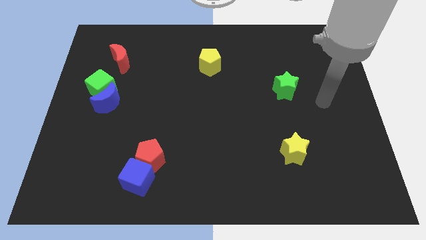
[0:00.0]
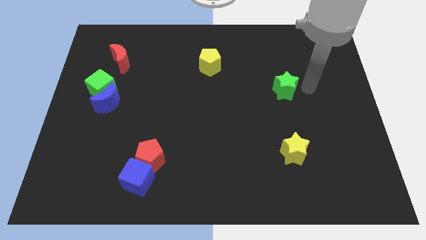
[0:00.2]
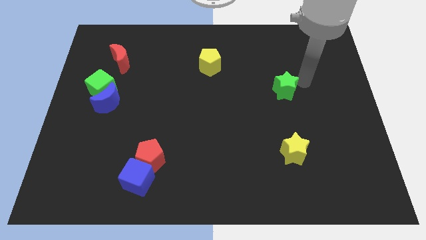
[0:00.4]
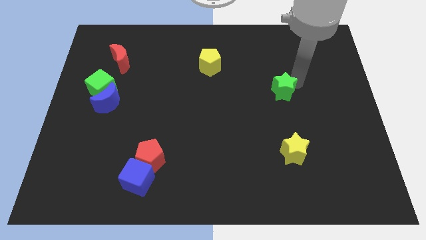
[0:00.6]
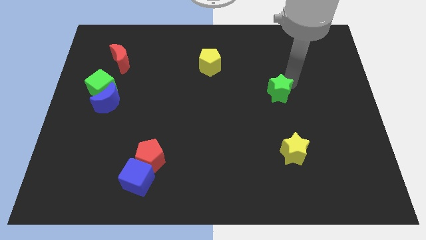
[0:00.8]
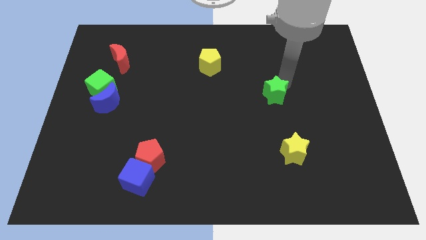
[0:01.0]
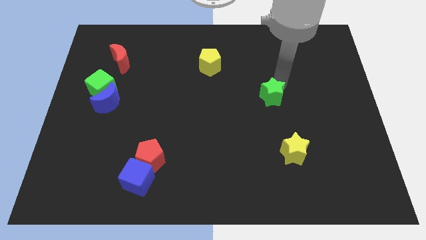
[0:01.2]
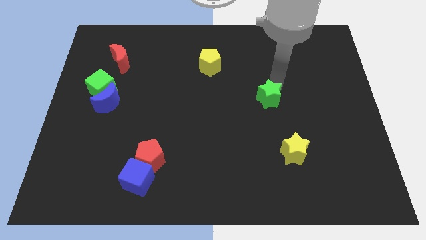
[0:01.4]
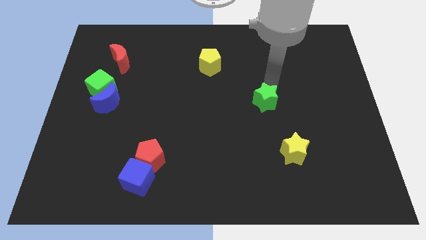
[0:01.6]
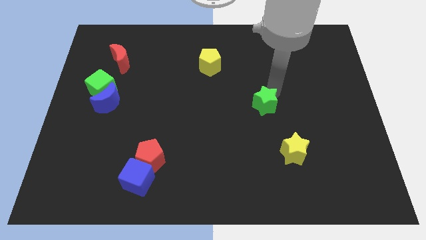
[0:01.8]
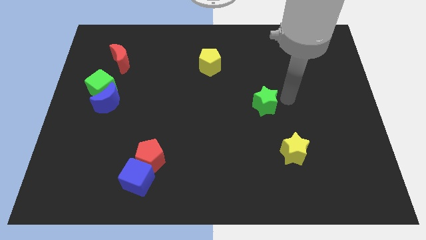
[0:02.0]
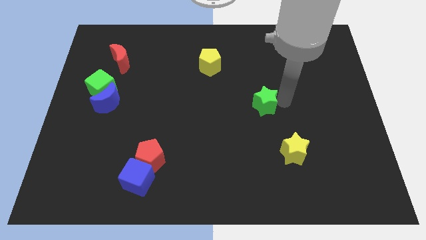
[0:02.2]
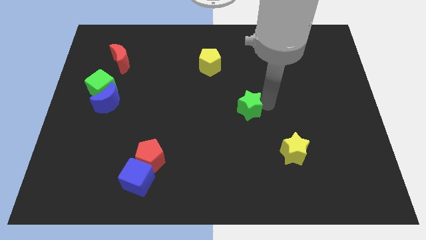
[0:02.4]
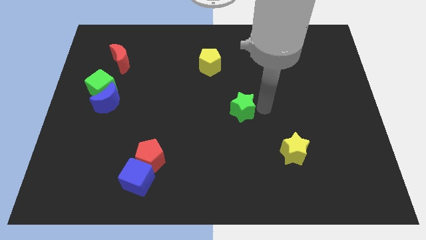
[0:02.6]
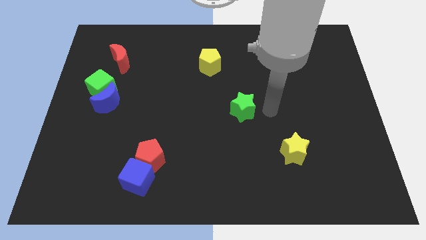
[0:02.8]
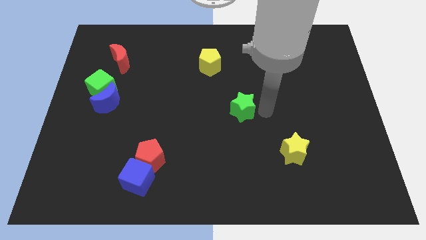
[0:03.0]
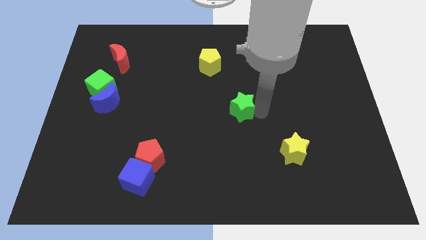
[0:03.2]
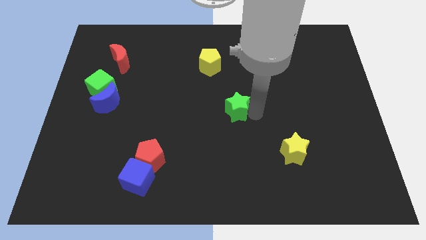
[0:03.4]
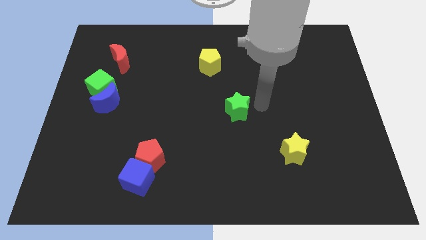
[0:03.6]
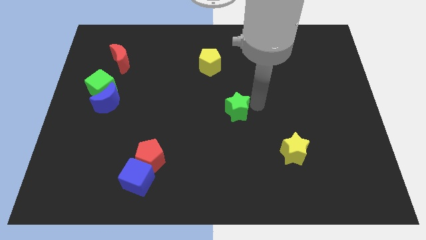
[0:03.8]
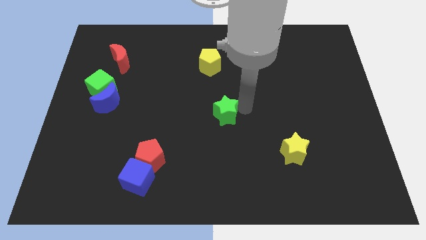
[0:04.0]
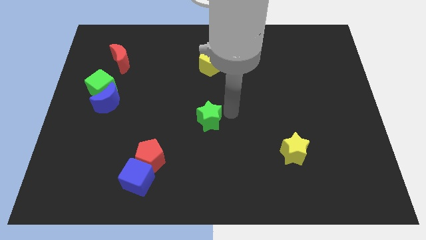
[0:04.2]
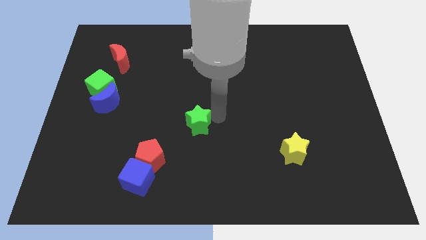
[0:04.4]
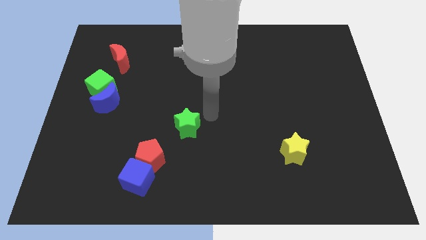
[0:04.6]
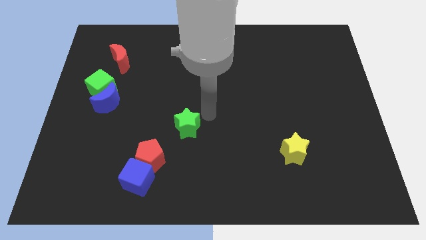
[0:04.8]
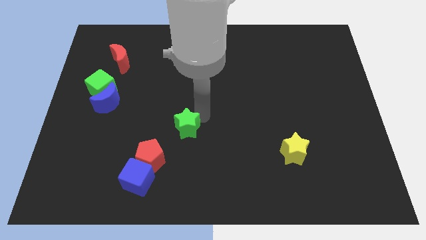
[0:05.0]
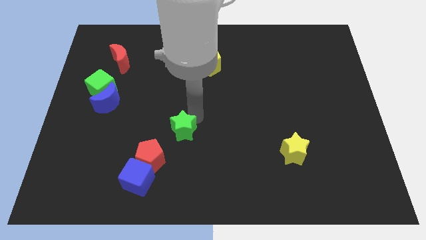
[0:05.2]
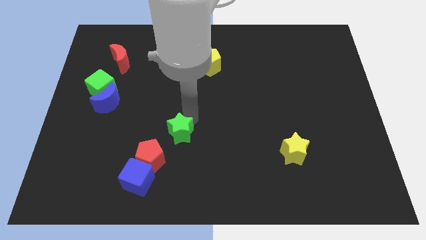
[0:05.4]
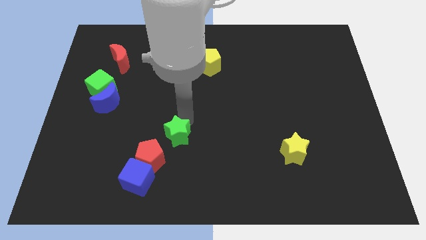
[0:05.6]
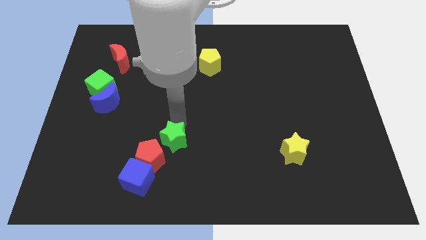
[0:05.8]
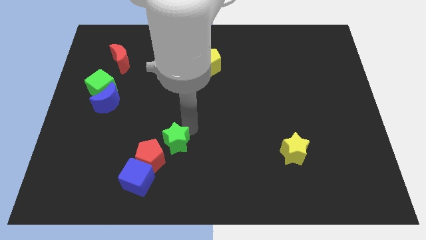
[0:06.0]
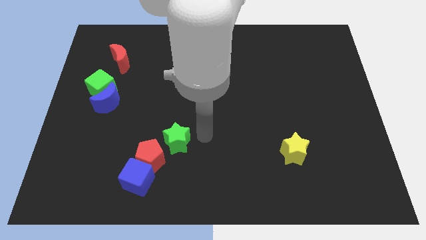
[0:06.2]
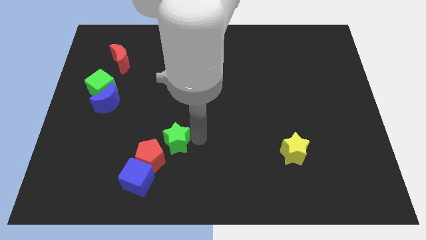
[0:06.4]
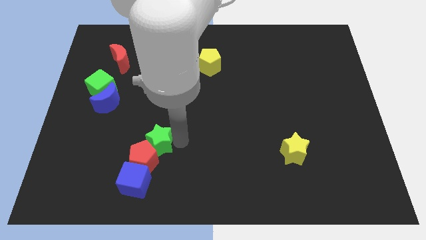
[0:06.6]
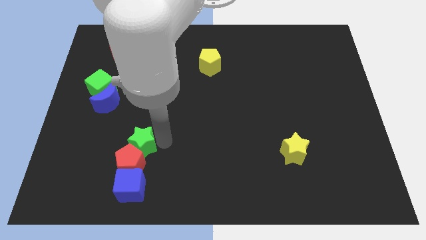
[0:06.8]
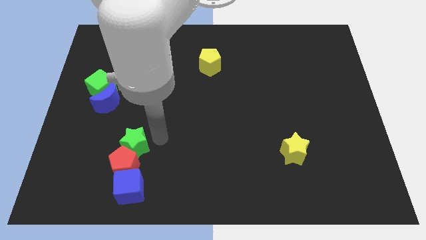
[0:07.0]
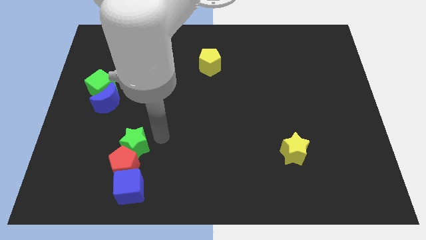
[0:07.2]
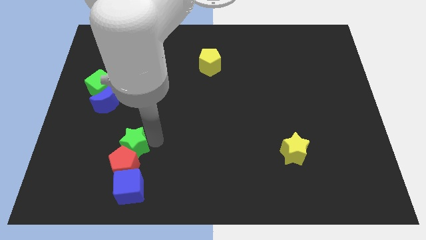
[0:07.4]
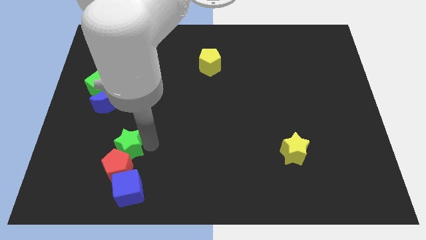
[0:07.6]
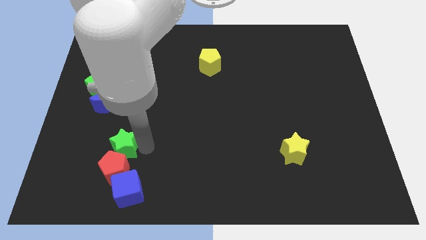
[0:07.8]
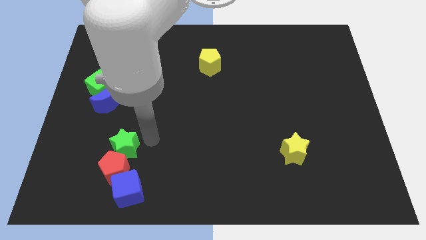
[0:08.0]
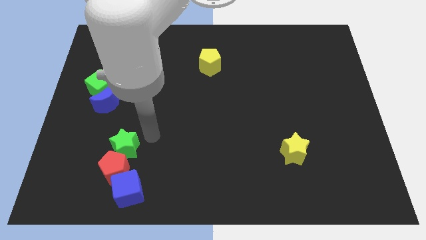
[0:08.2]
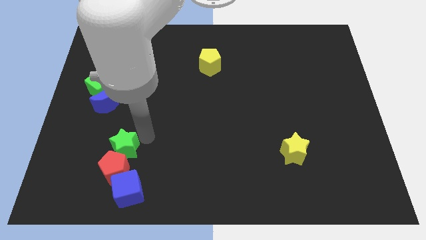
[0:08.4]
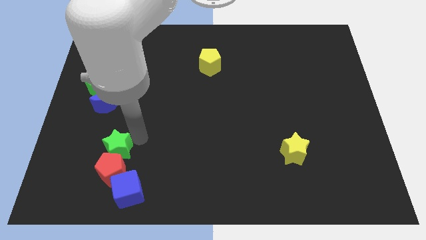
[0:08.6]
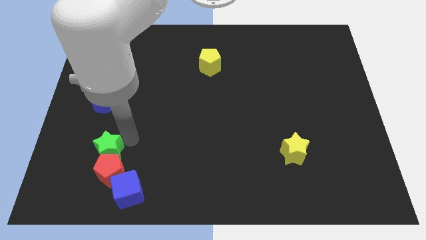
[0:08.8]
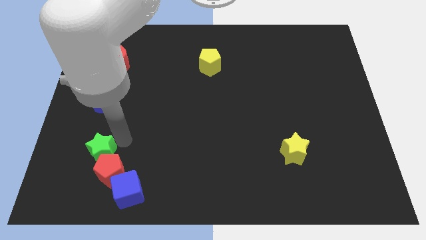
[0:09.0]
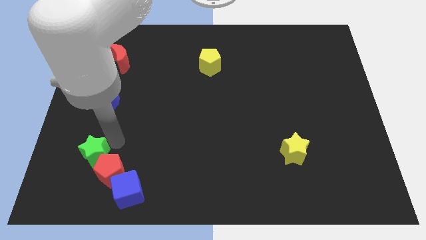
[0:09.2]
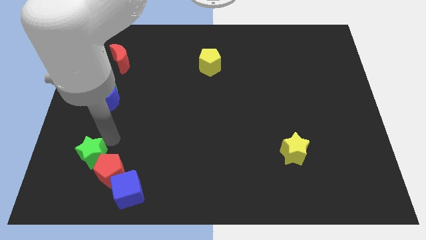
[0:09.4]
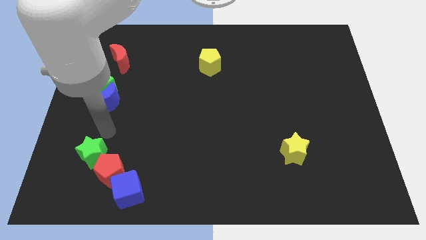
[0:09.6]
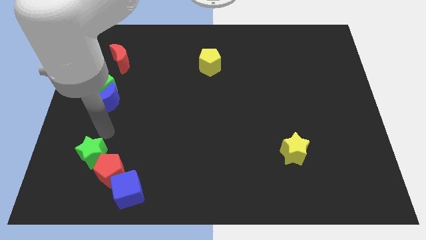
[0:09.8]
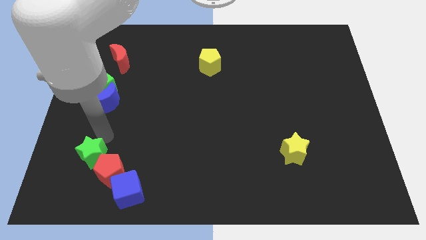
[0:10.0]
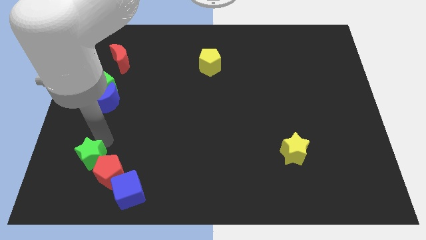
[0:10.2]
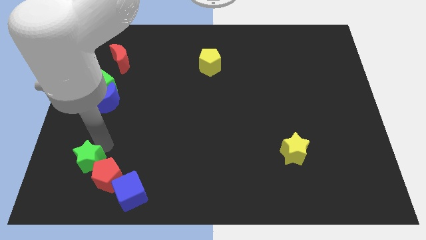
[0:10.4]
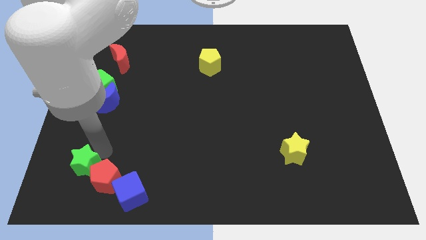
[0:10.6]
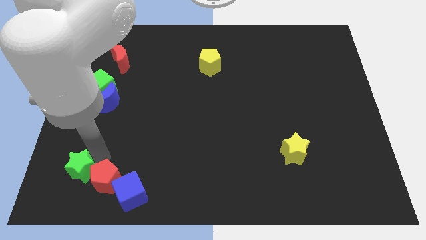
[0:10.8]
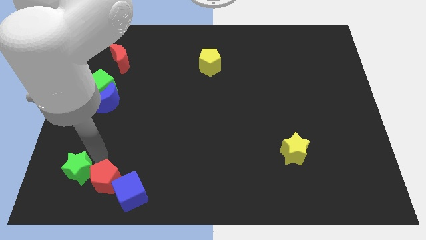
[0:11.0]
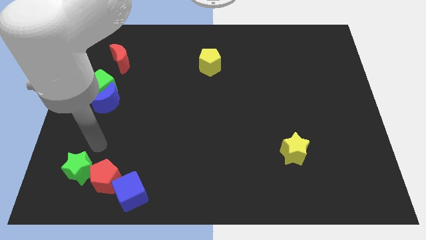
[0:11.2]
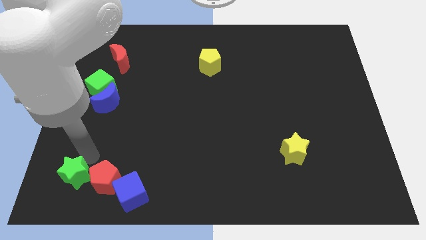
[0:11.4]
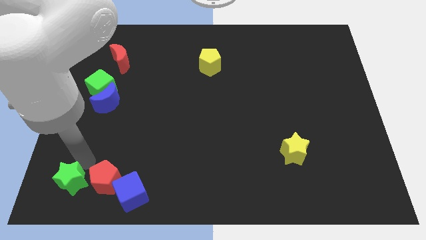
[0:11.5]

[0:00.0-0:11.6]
slide the green star to the lower left corner
